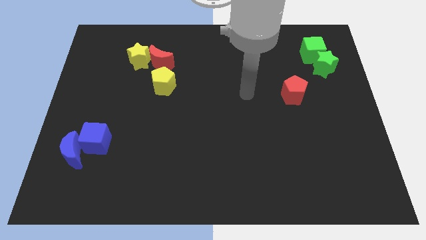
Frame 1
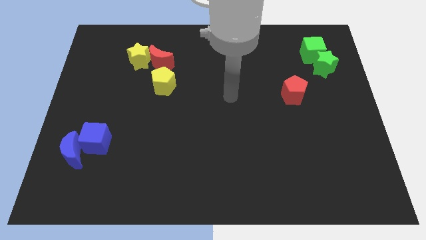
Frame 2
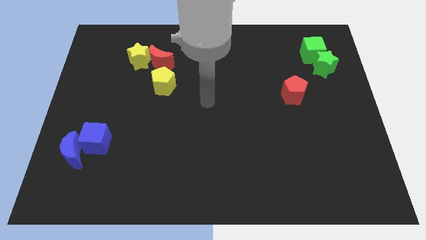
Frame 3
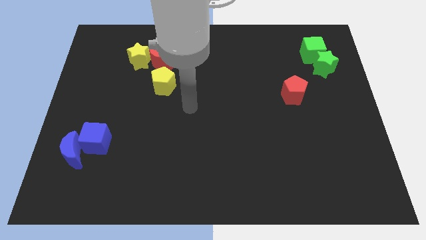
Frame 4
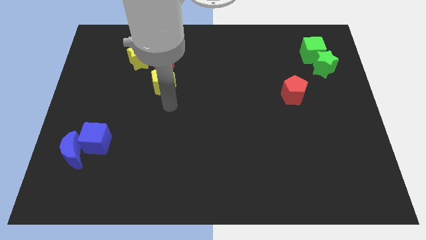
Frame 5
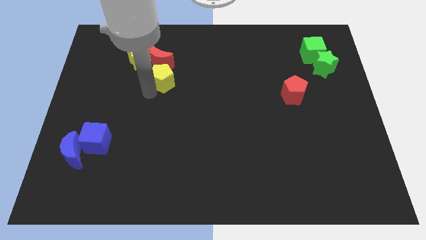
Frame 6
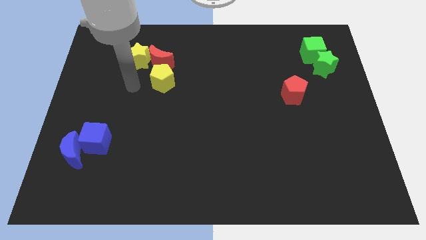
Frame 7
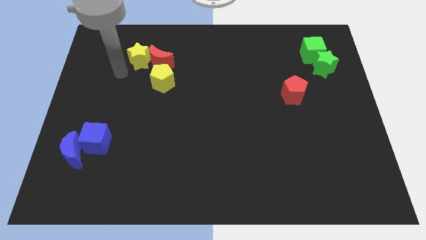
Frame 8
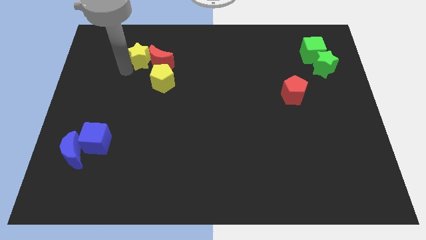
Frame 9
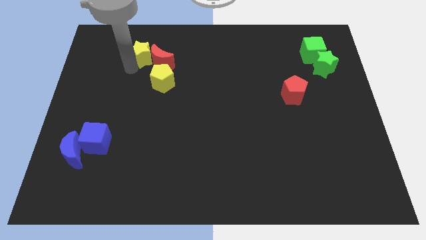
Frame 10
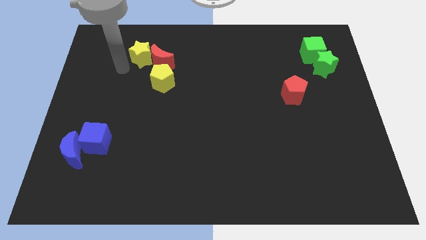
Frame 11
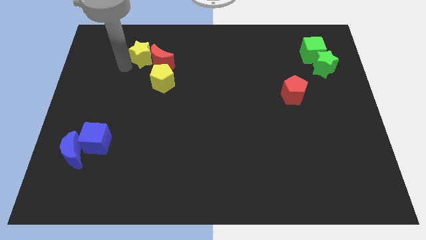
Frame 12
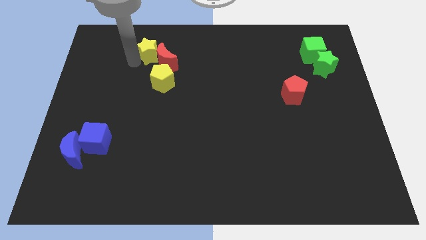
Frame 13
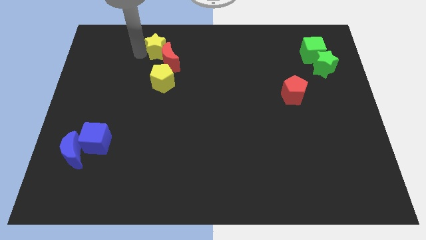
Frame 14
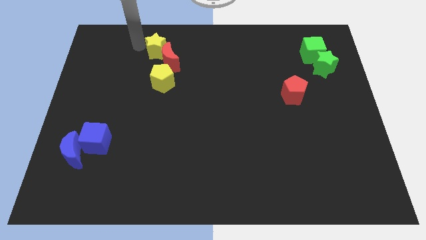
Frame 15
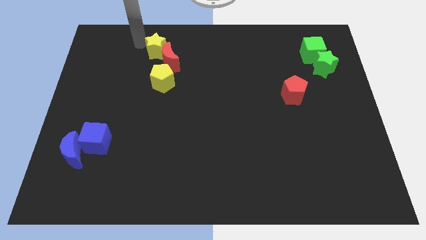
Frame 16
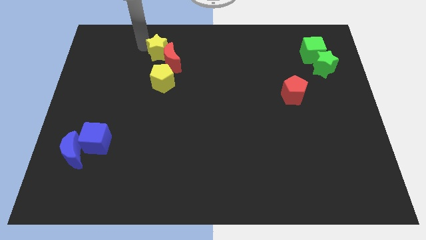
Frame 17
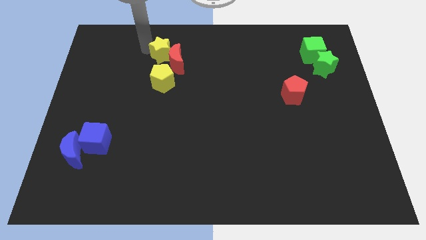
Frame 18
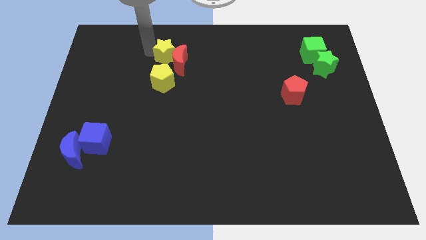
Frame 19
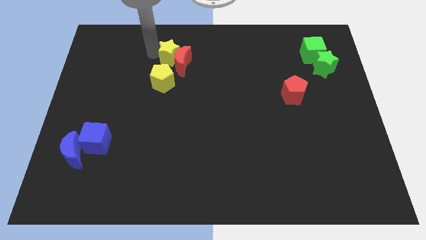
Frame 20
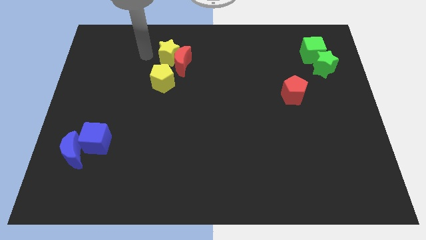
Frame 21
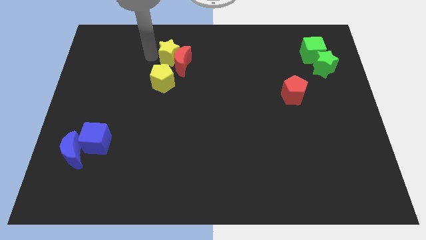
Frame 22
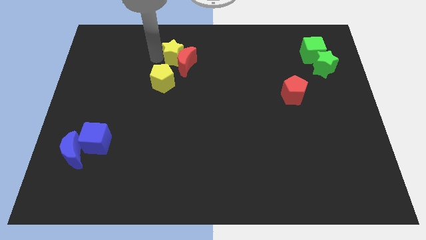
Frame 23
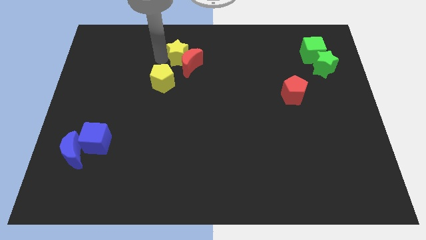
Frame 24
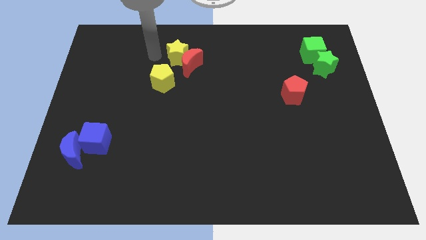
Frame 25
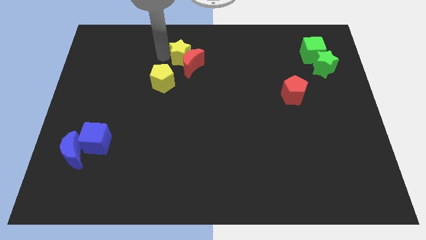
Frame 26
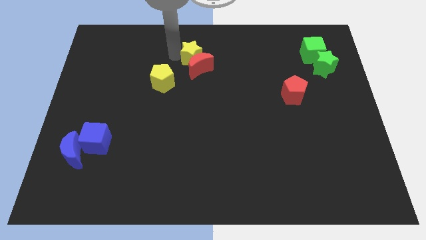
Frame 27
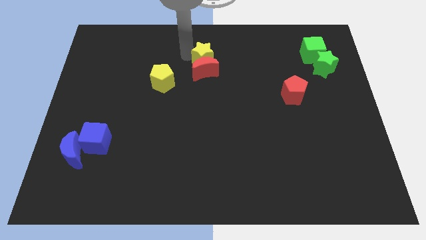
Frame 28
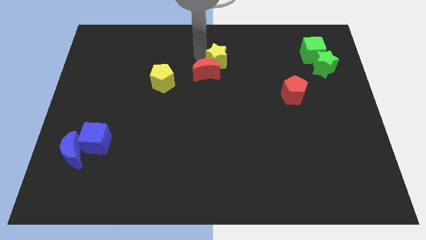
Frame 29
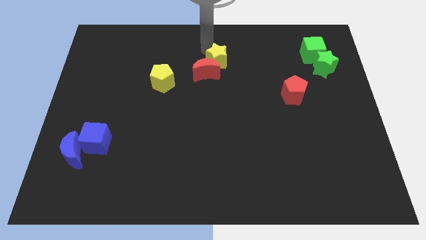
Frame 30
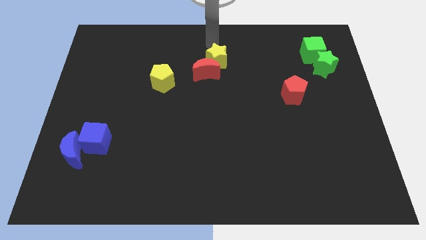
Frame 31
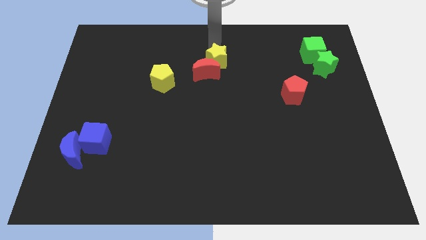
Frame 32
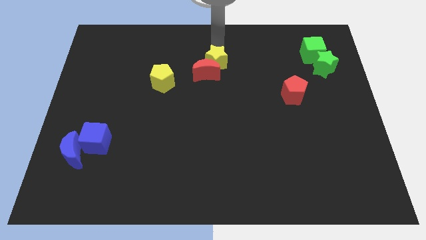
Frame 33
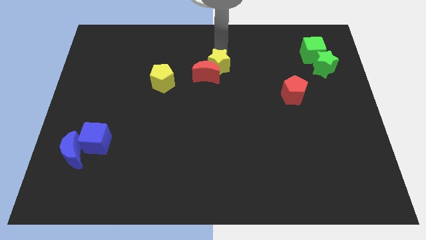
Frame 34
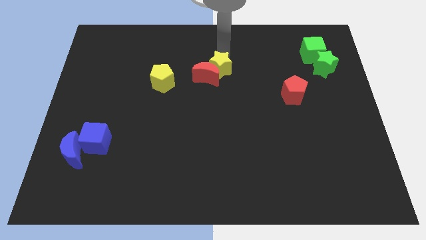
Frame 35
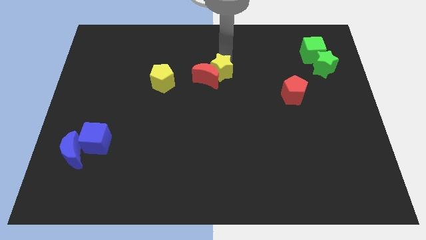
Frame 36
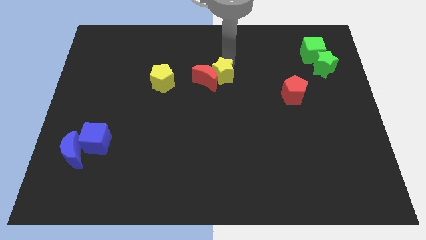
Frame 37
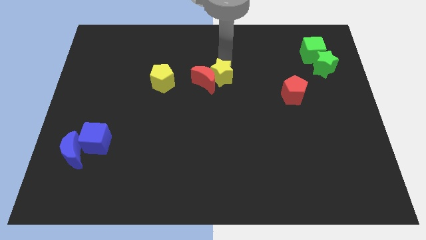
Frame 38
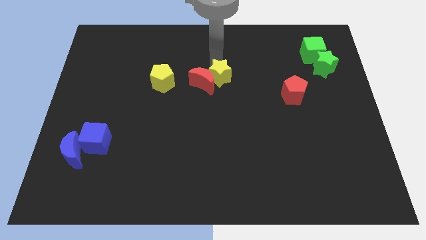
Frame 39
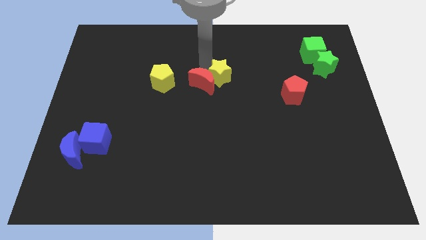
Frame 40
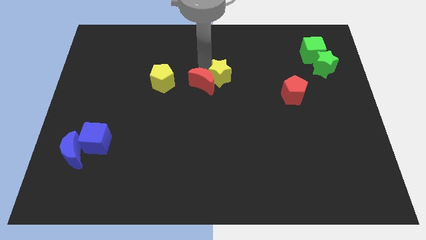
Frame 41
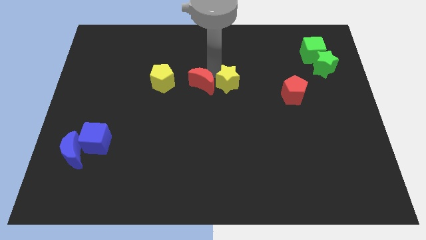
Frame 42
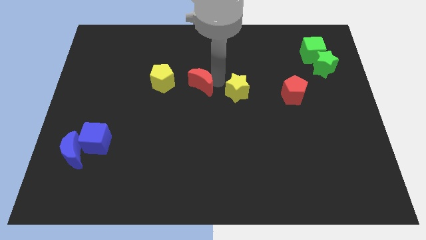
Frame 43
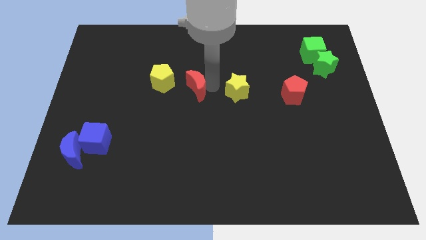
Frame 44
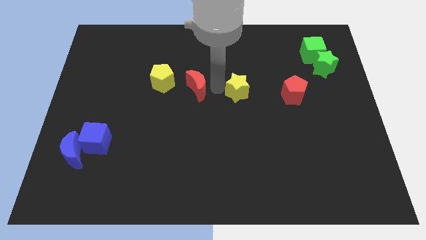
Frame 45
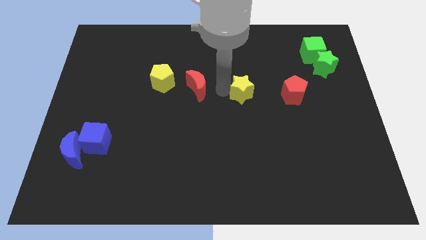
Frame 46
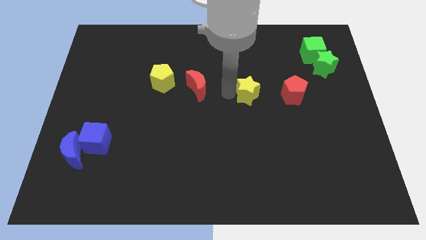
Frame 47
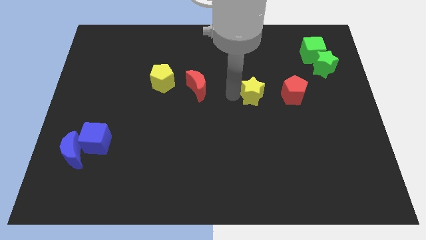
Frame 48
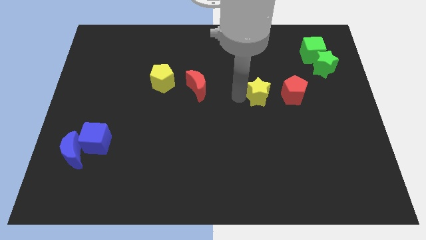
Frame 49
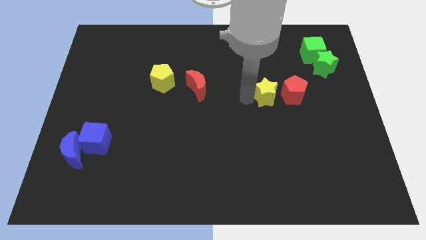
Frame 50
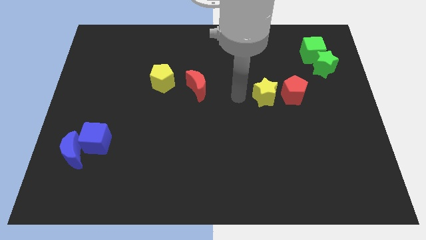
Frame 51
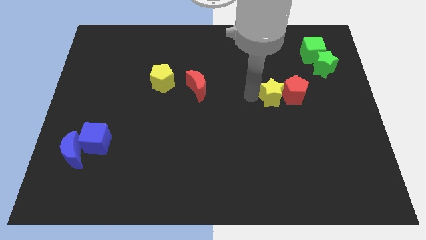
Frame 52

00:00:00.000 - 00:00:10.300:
push the yellow star towards the red pentagon

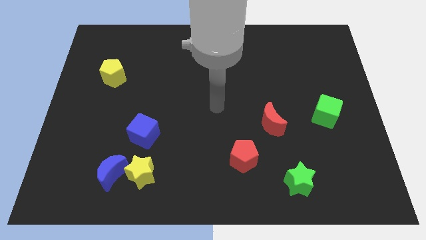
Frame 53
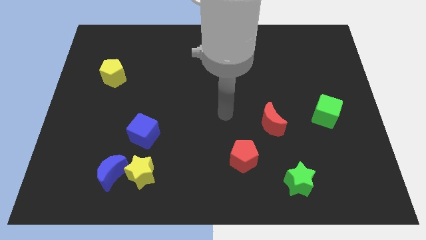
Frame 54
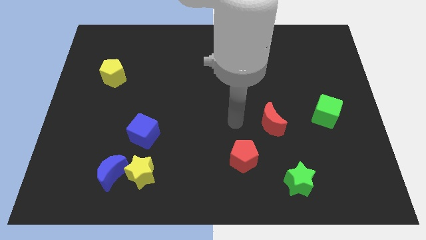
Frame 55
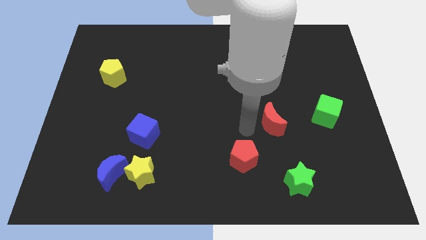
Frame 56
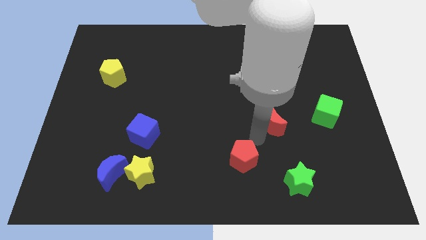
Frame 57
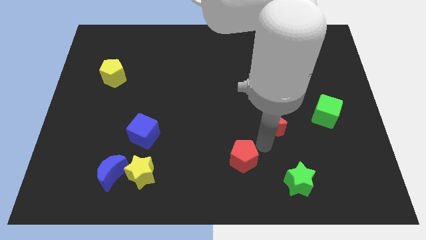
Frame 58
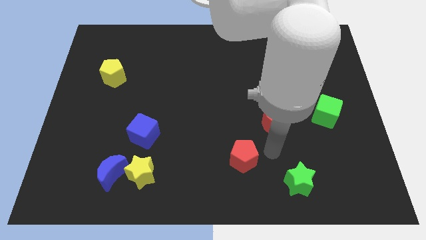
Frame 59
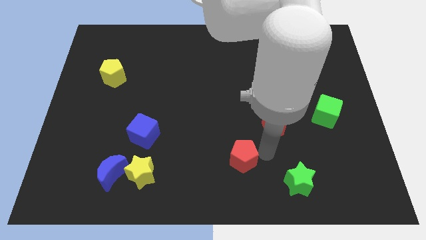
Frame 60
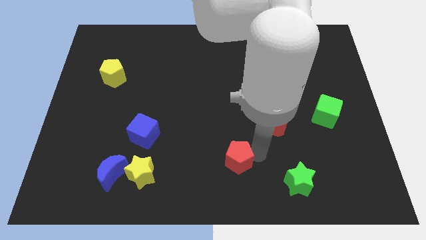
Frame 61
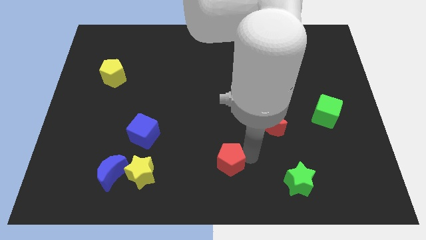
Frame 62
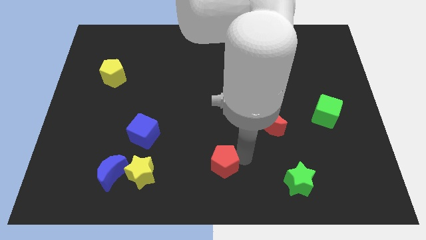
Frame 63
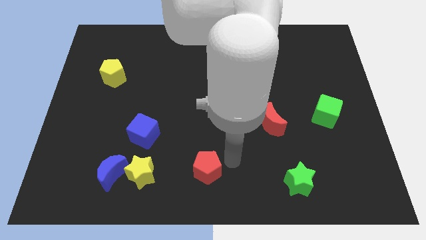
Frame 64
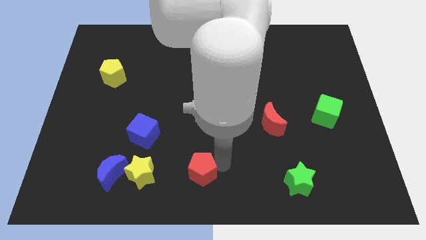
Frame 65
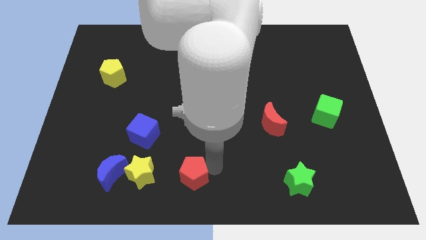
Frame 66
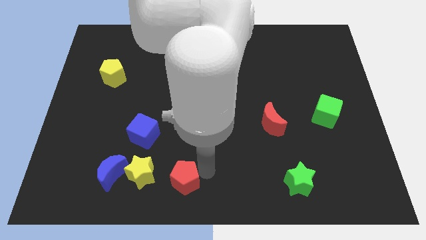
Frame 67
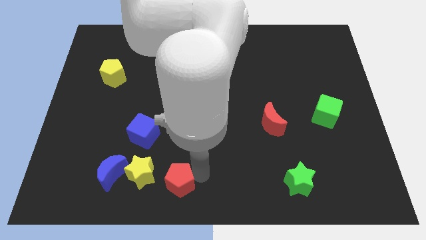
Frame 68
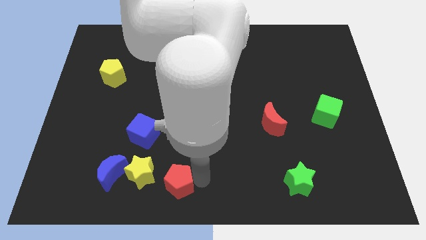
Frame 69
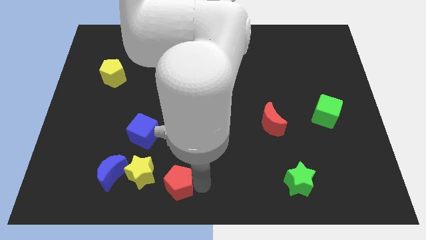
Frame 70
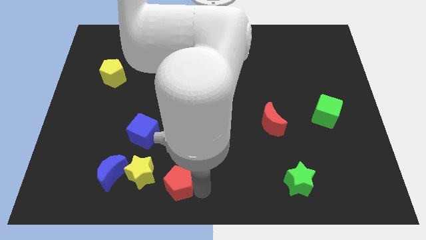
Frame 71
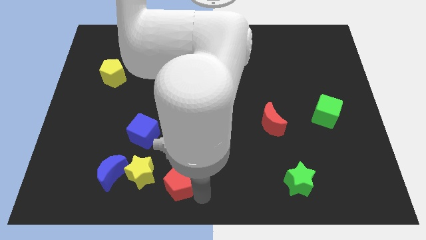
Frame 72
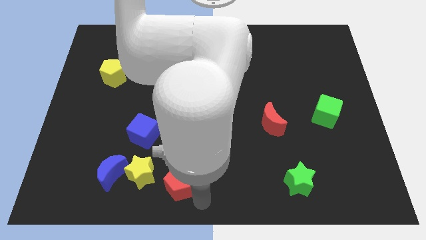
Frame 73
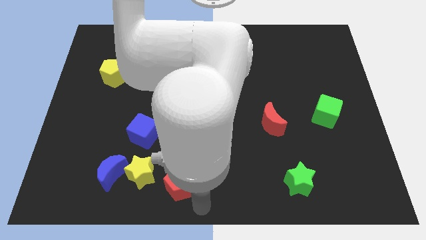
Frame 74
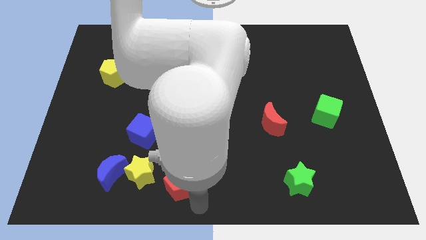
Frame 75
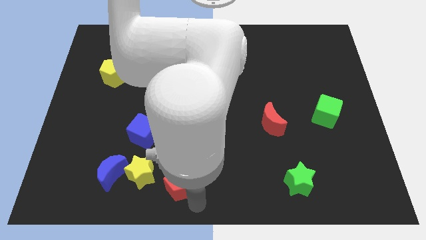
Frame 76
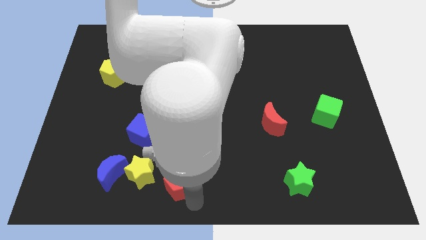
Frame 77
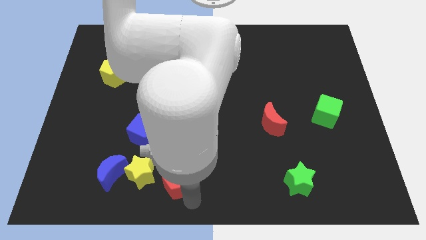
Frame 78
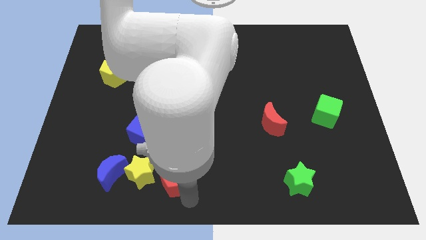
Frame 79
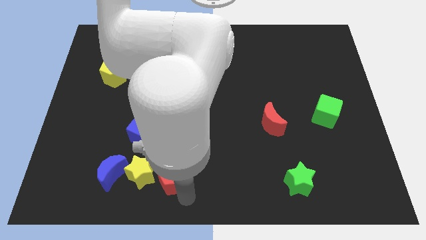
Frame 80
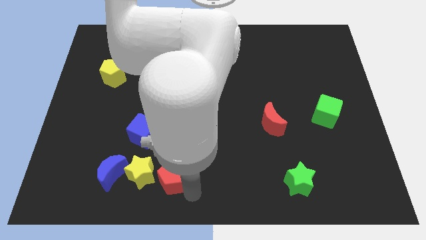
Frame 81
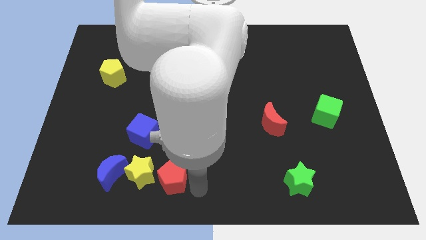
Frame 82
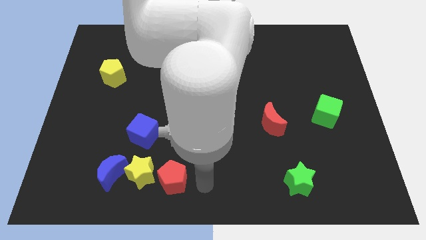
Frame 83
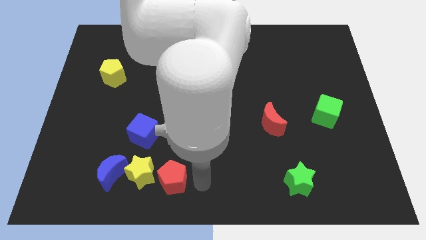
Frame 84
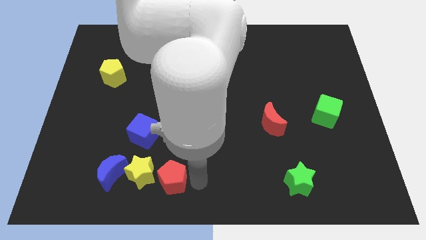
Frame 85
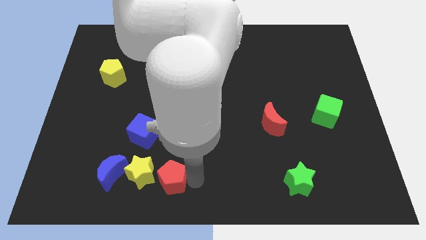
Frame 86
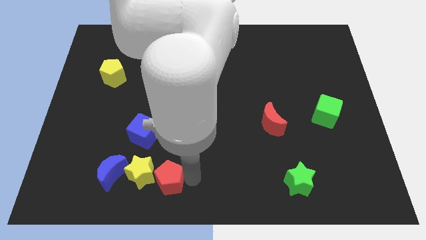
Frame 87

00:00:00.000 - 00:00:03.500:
move the red pentagon to the yellow star
